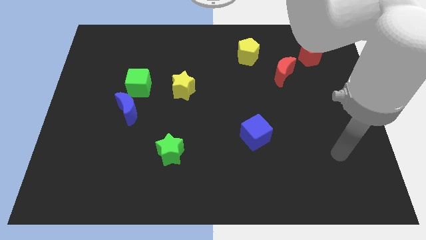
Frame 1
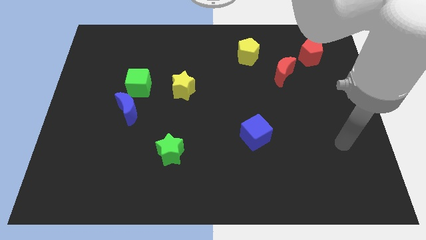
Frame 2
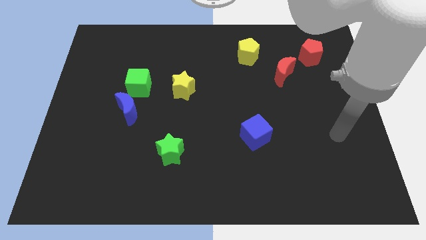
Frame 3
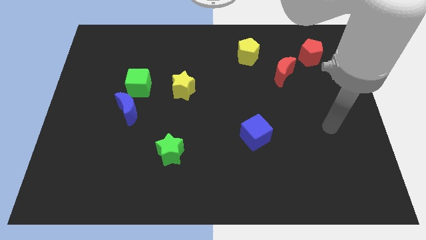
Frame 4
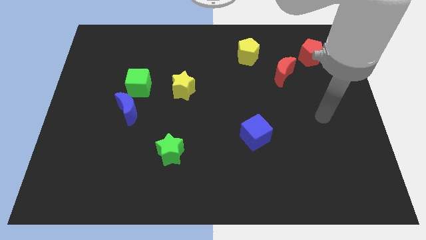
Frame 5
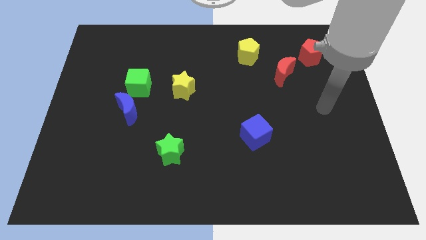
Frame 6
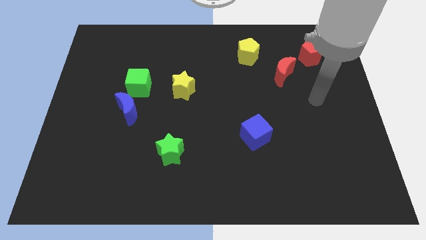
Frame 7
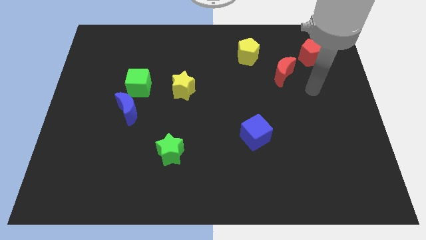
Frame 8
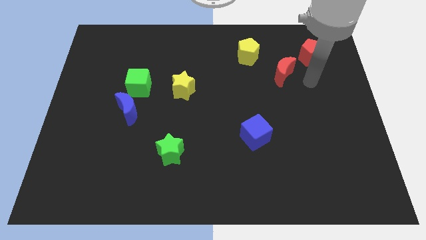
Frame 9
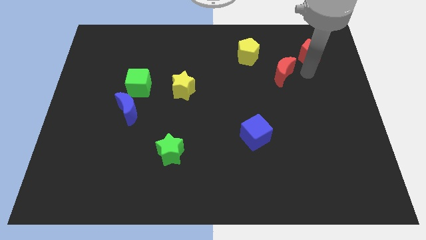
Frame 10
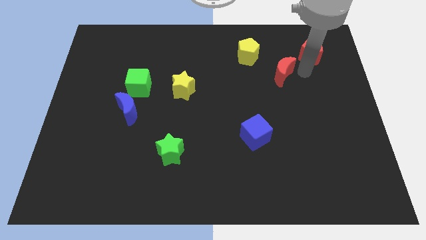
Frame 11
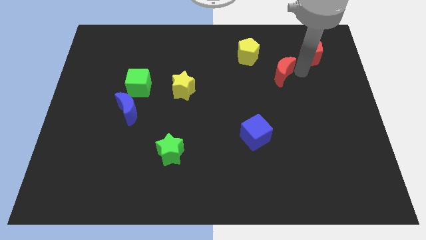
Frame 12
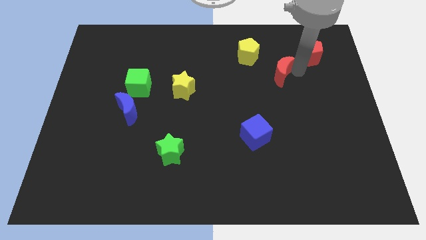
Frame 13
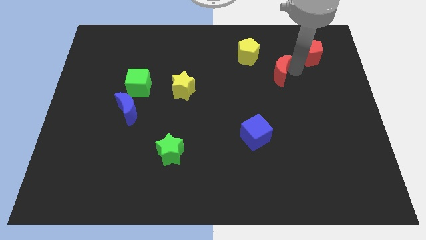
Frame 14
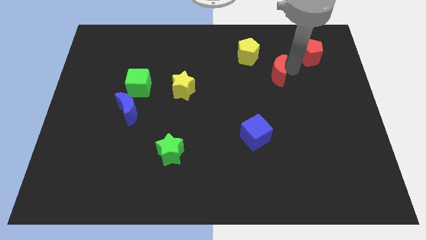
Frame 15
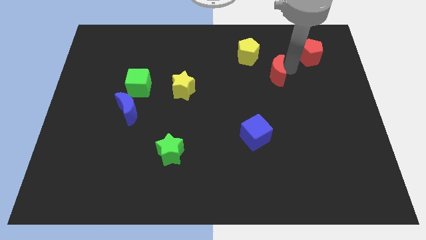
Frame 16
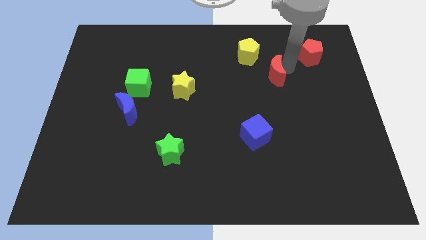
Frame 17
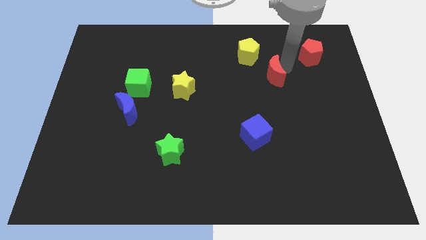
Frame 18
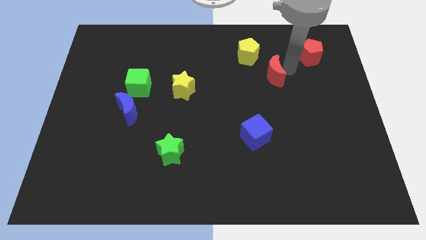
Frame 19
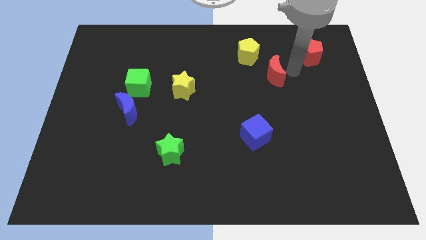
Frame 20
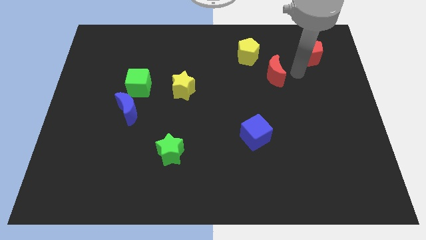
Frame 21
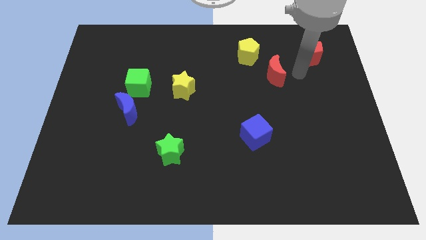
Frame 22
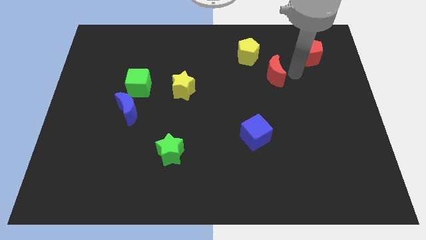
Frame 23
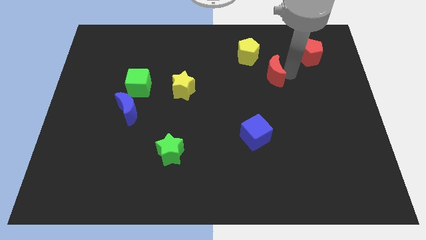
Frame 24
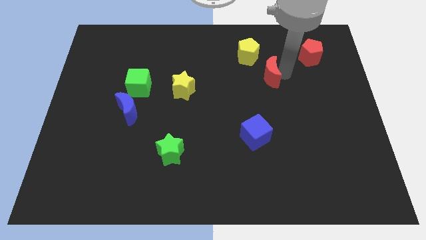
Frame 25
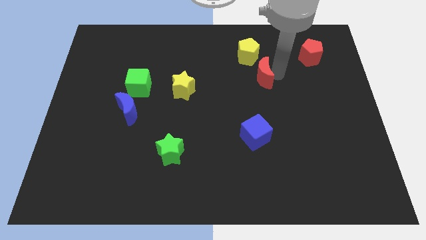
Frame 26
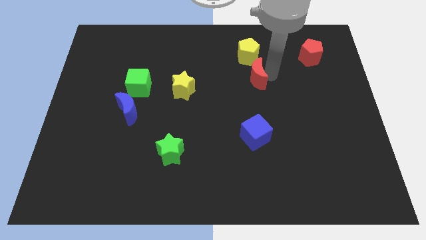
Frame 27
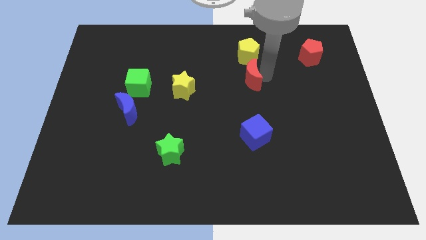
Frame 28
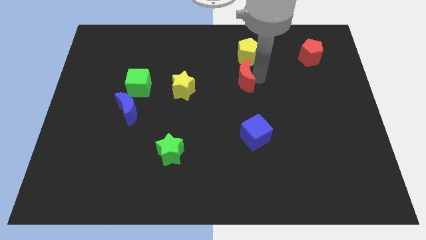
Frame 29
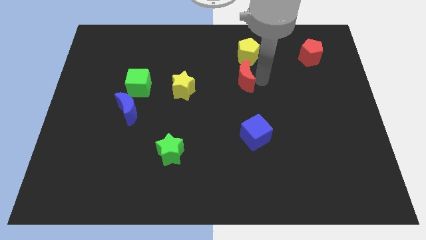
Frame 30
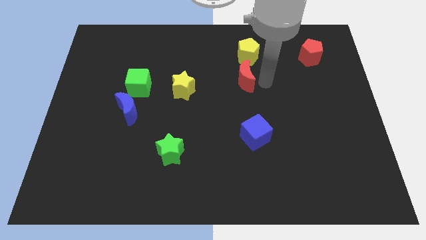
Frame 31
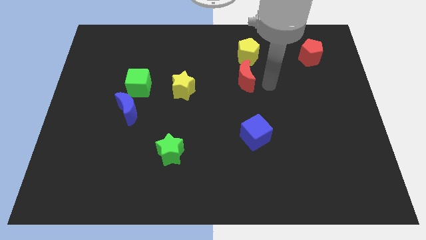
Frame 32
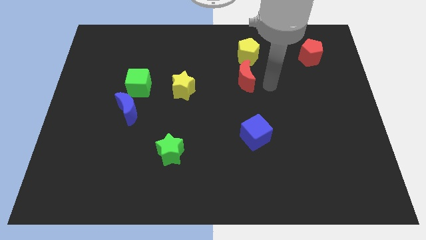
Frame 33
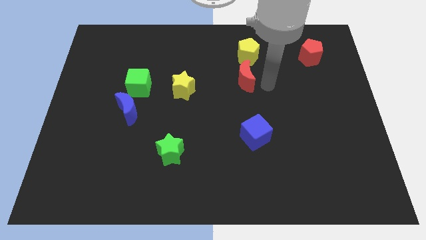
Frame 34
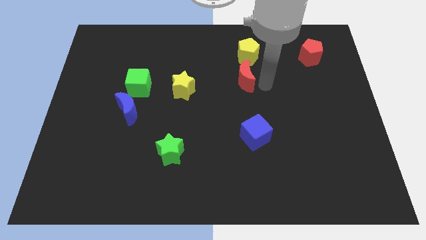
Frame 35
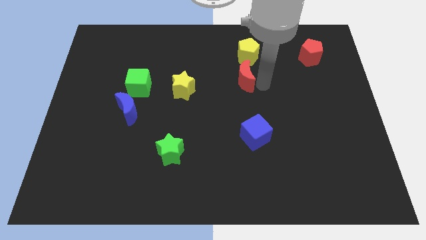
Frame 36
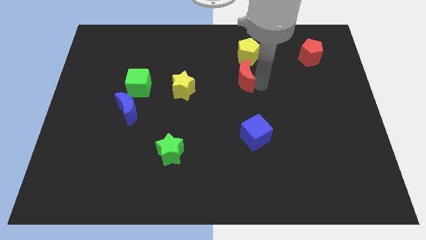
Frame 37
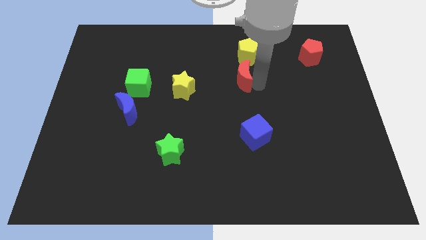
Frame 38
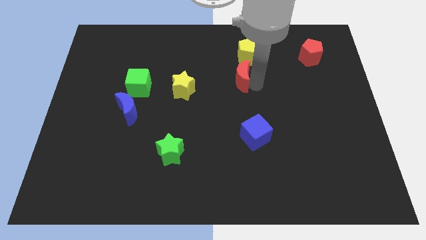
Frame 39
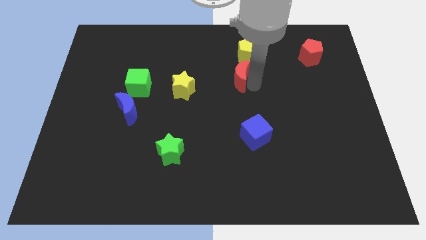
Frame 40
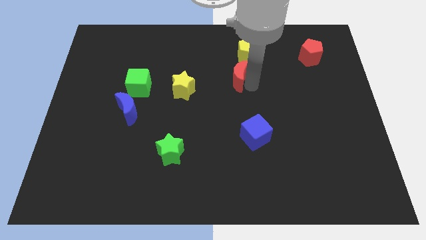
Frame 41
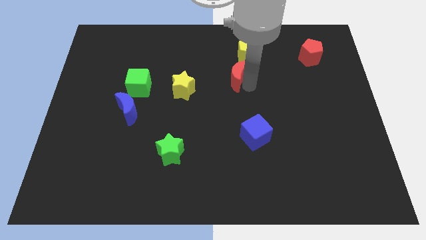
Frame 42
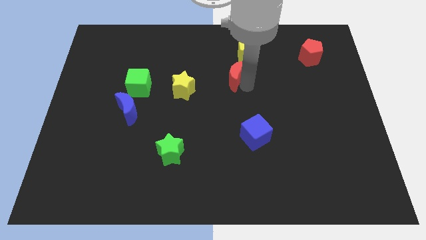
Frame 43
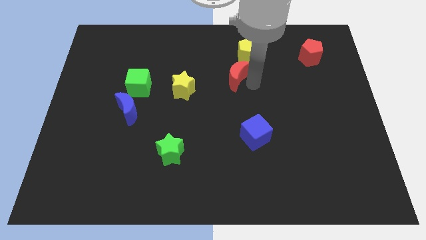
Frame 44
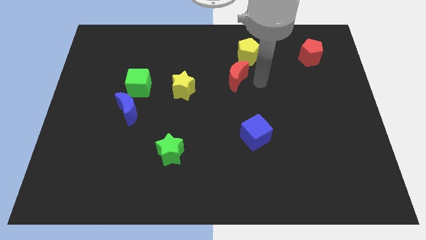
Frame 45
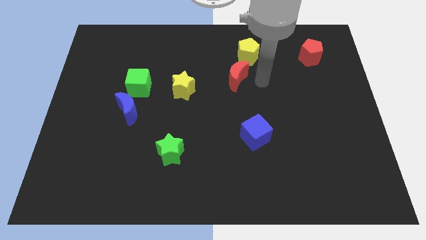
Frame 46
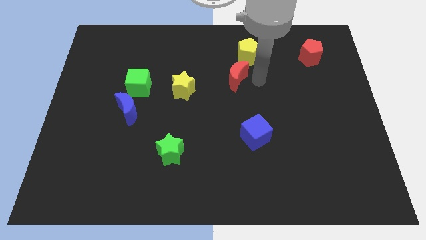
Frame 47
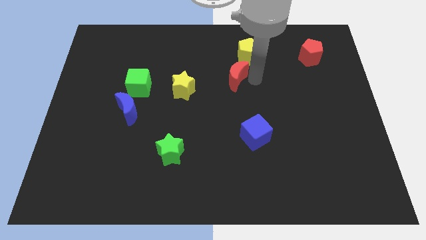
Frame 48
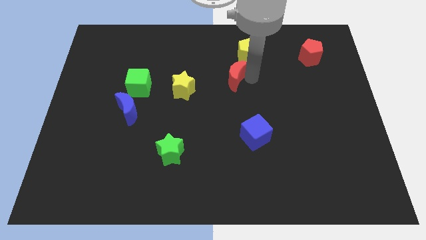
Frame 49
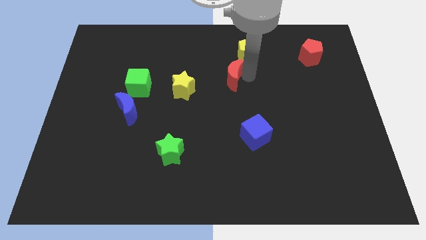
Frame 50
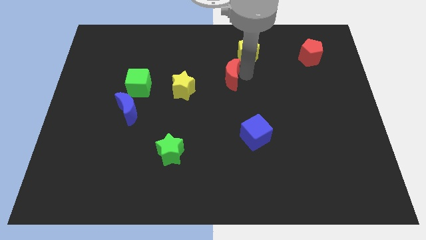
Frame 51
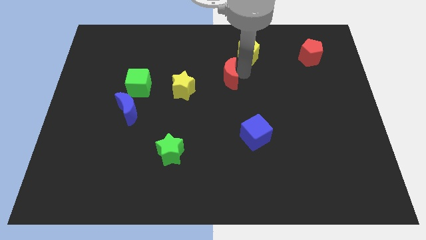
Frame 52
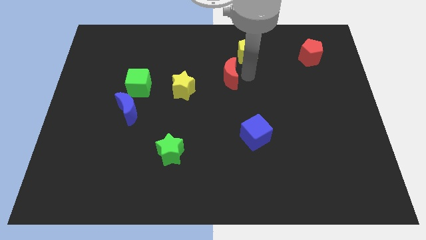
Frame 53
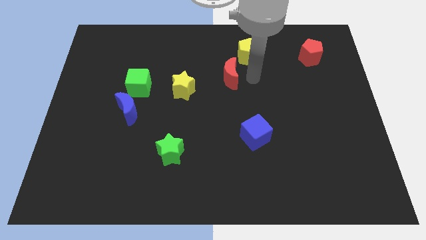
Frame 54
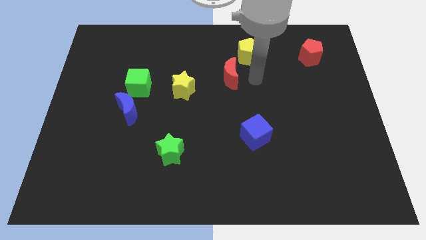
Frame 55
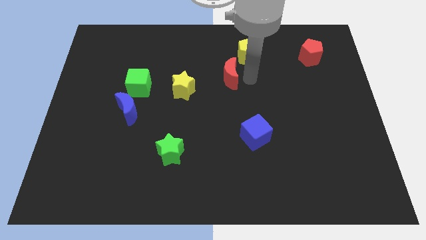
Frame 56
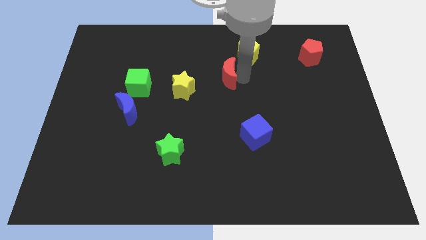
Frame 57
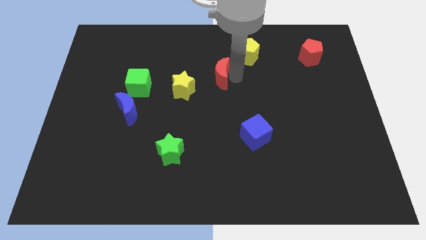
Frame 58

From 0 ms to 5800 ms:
push the red moon to the top right of the yellow star

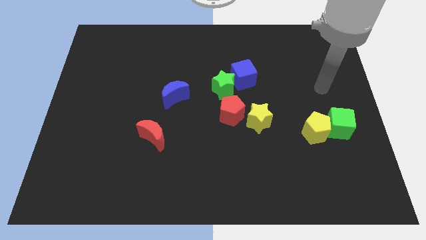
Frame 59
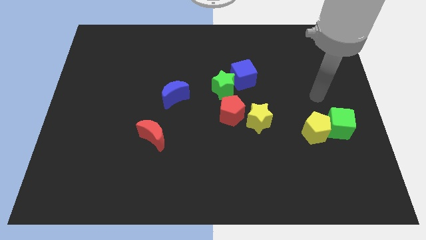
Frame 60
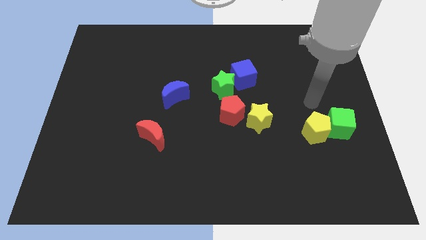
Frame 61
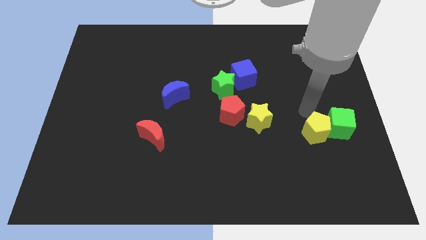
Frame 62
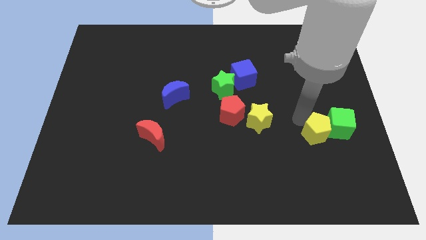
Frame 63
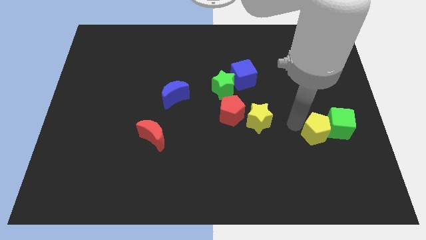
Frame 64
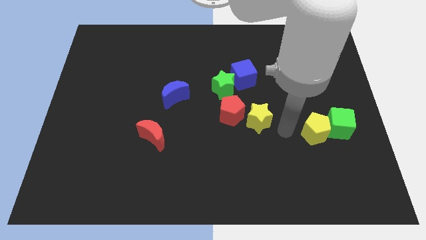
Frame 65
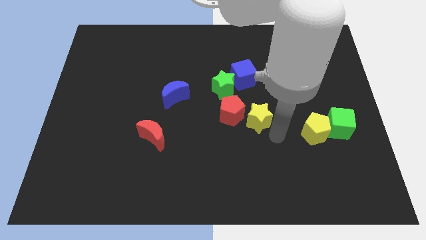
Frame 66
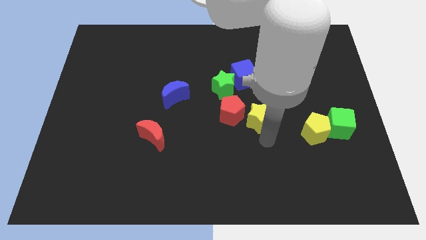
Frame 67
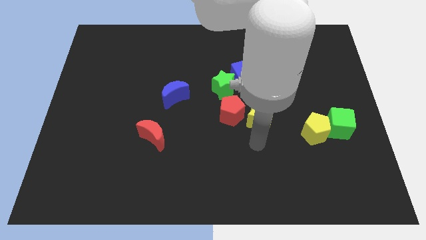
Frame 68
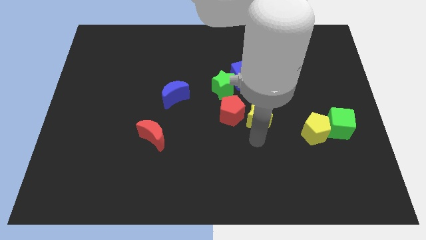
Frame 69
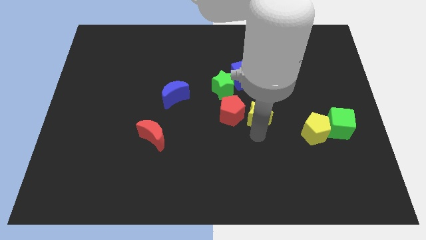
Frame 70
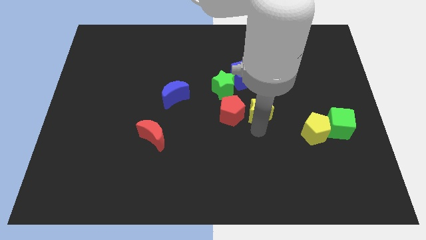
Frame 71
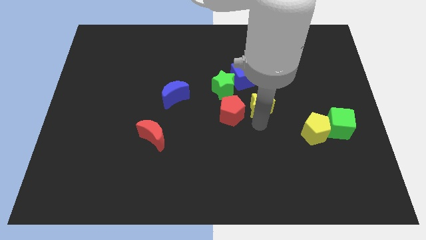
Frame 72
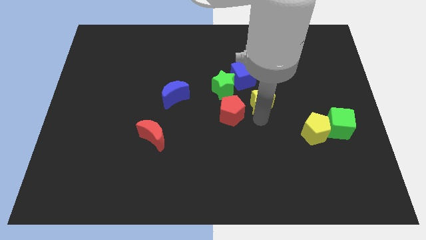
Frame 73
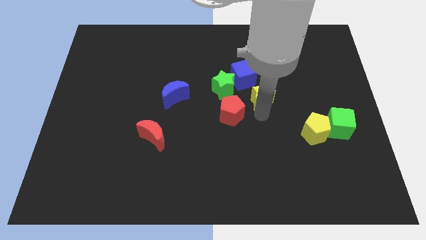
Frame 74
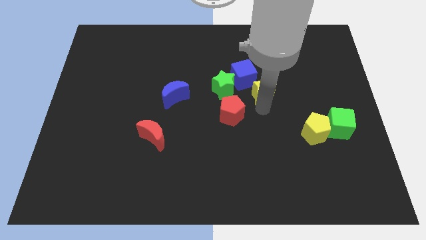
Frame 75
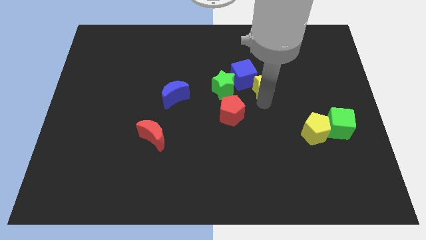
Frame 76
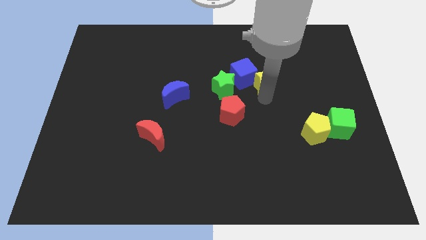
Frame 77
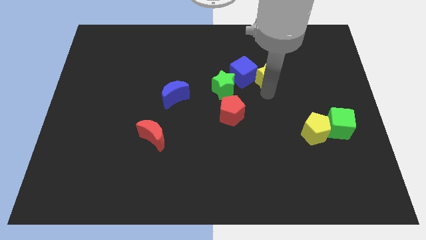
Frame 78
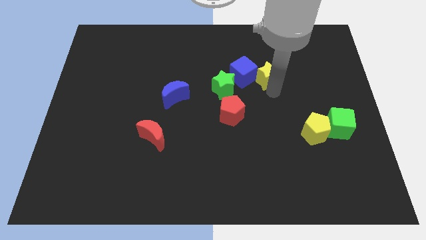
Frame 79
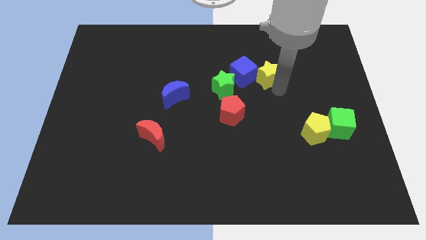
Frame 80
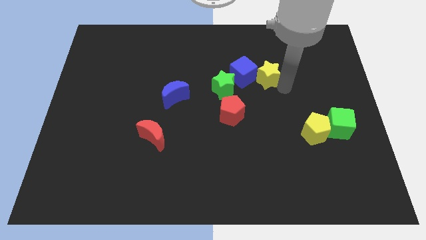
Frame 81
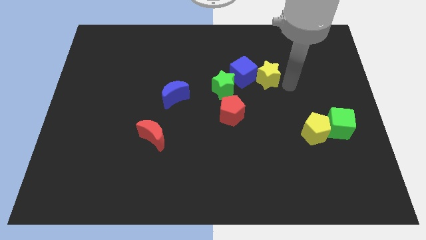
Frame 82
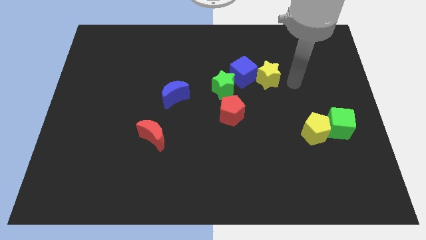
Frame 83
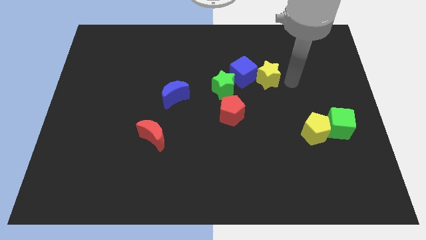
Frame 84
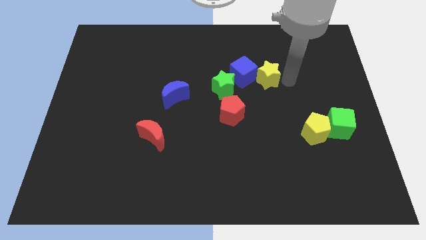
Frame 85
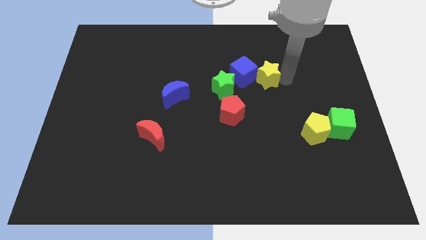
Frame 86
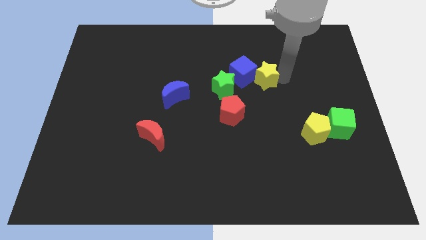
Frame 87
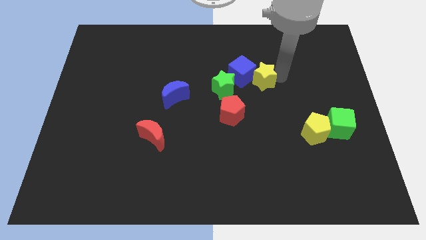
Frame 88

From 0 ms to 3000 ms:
put the yellow star to the top right side of the green star
